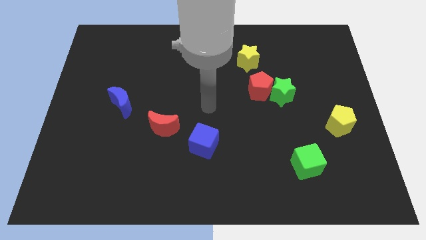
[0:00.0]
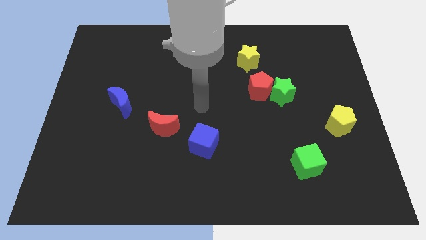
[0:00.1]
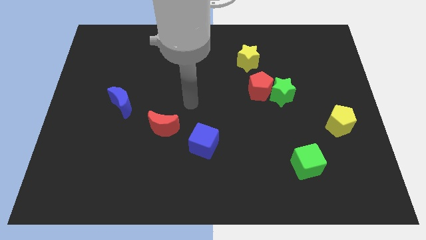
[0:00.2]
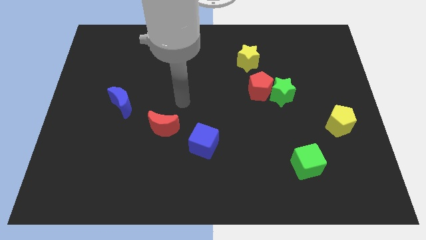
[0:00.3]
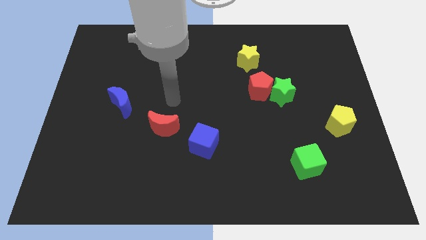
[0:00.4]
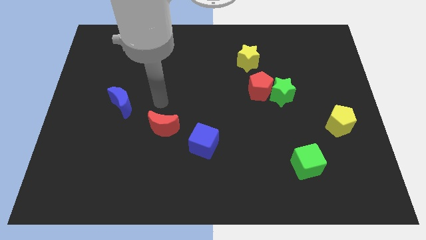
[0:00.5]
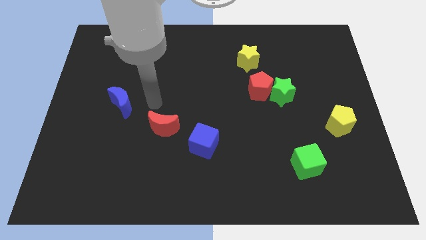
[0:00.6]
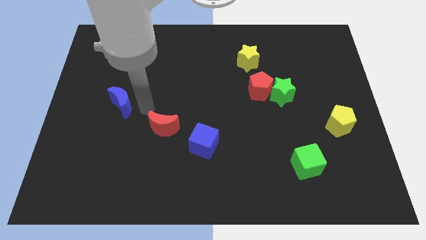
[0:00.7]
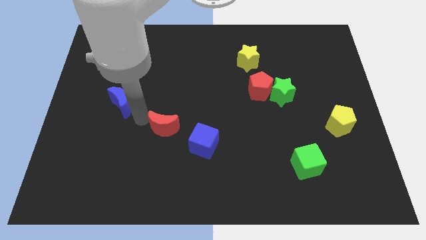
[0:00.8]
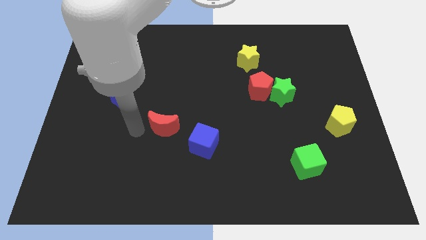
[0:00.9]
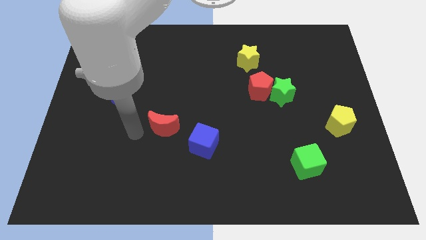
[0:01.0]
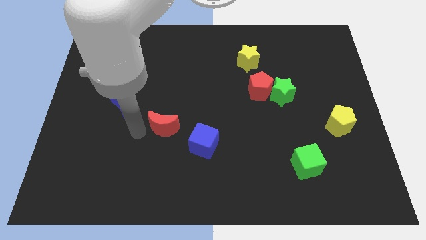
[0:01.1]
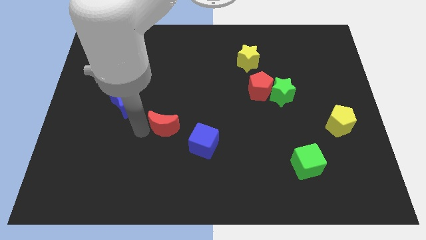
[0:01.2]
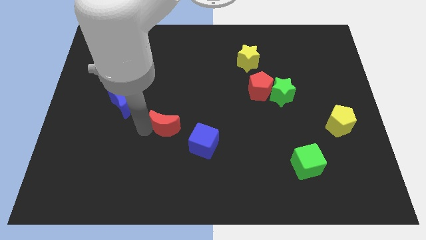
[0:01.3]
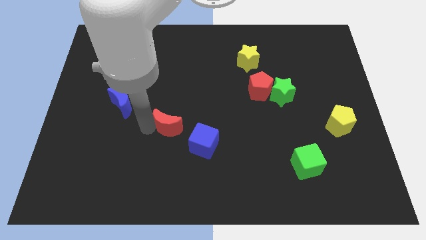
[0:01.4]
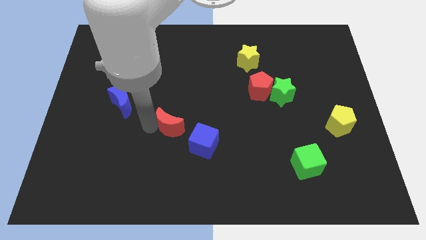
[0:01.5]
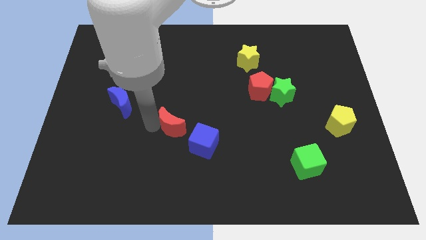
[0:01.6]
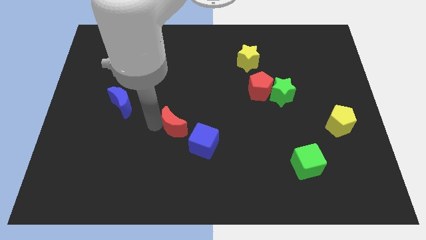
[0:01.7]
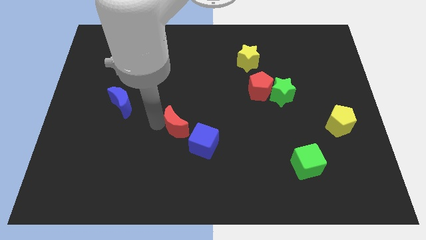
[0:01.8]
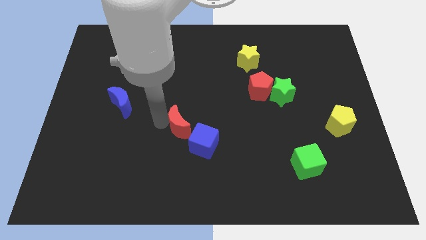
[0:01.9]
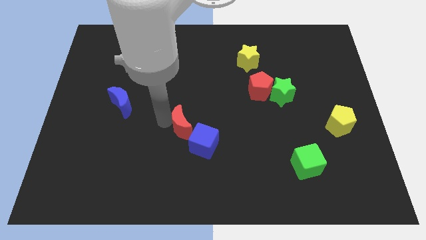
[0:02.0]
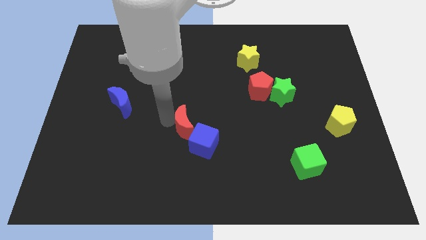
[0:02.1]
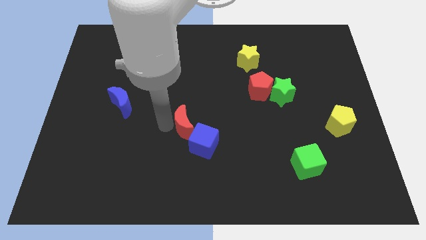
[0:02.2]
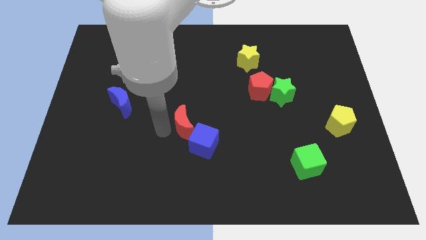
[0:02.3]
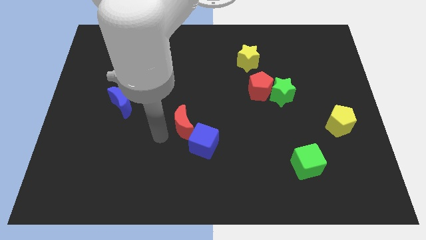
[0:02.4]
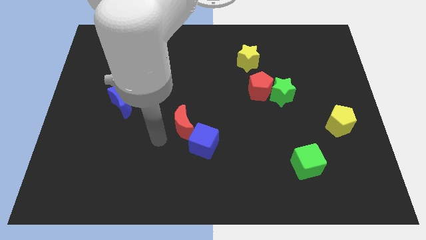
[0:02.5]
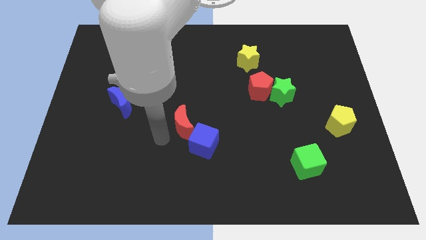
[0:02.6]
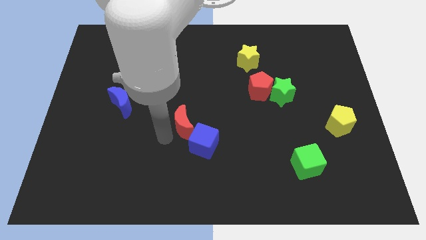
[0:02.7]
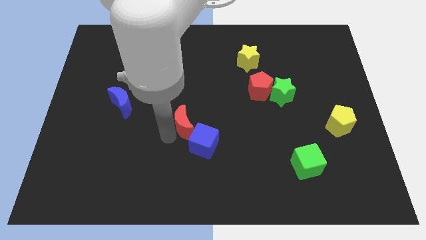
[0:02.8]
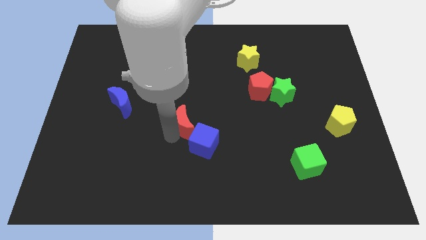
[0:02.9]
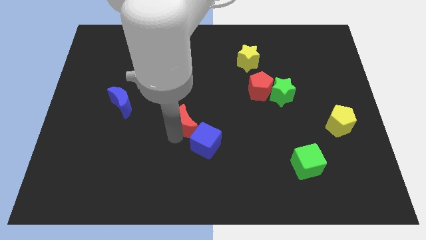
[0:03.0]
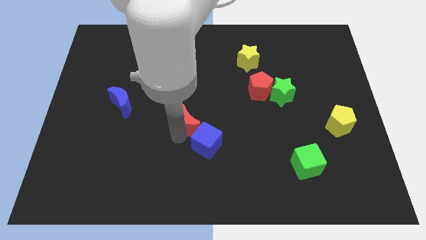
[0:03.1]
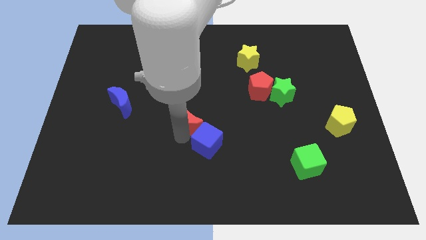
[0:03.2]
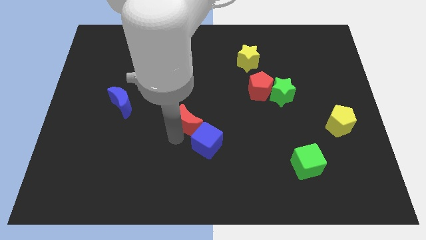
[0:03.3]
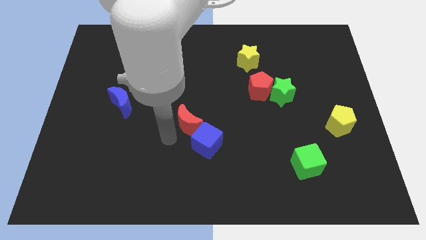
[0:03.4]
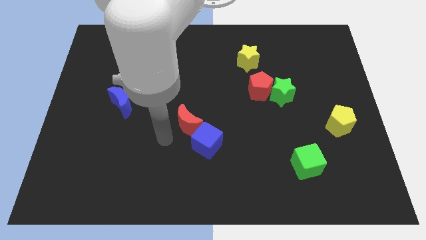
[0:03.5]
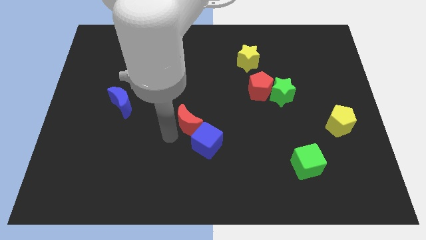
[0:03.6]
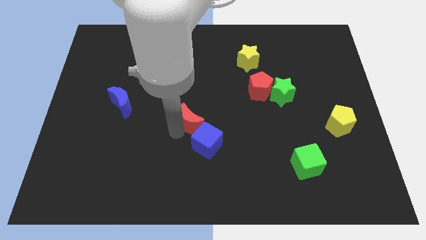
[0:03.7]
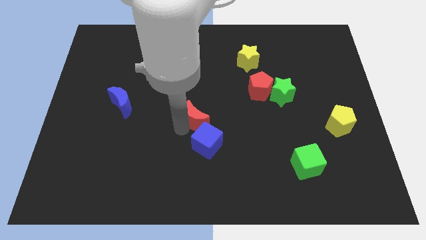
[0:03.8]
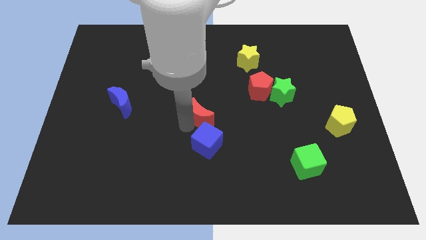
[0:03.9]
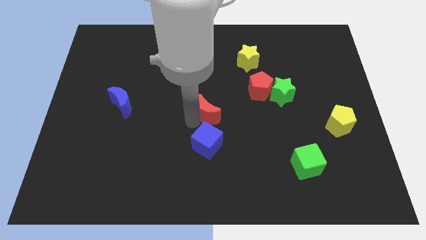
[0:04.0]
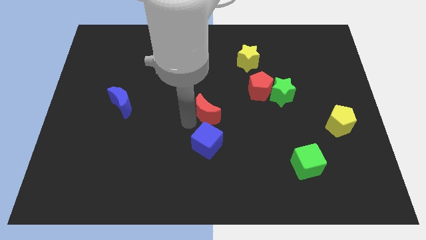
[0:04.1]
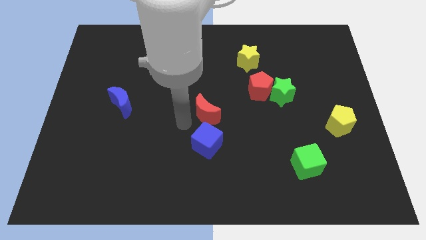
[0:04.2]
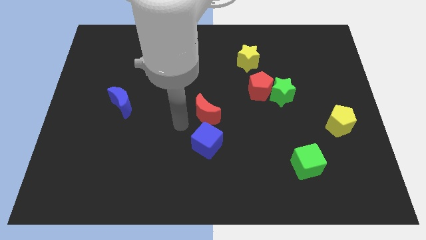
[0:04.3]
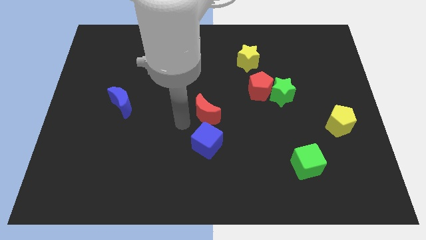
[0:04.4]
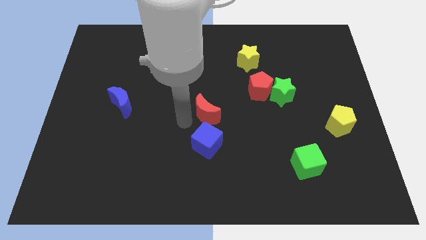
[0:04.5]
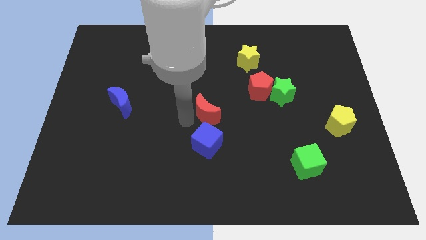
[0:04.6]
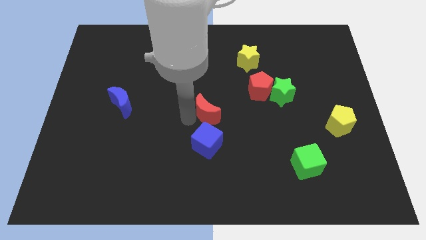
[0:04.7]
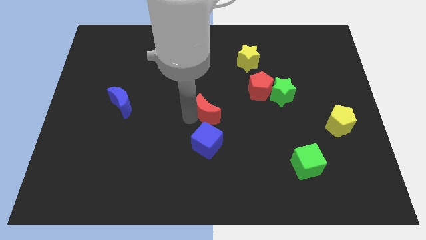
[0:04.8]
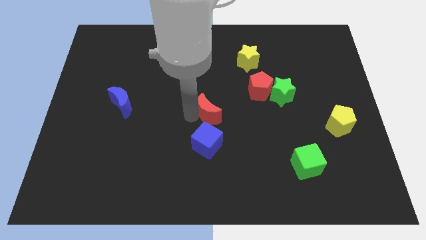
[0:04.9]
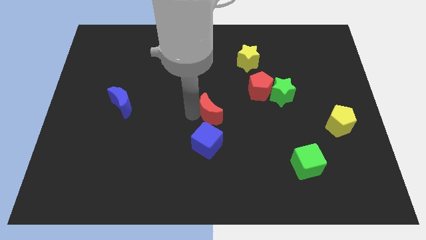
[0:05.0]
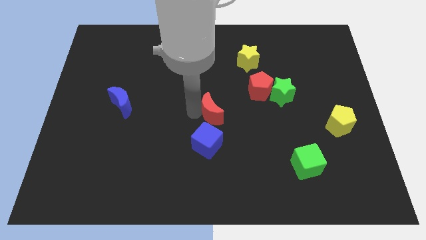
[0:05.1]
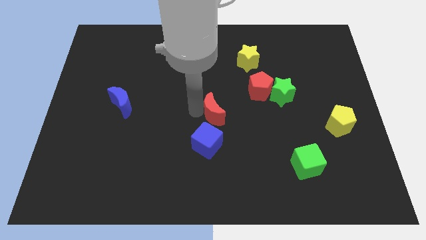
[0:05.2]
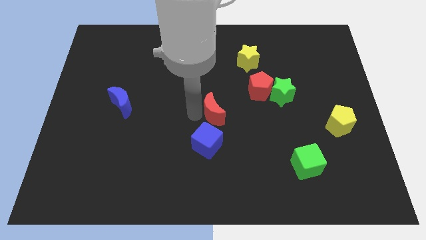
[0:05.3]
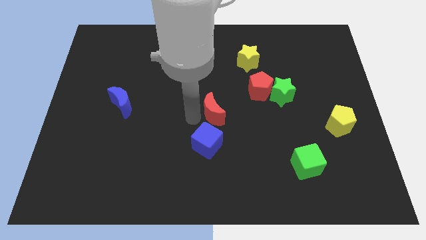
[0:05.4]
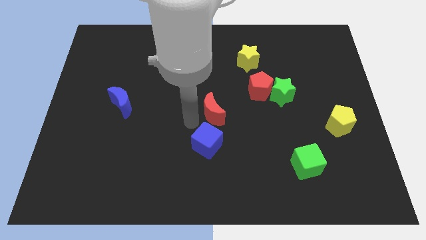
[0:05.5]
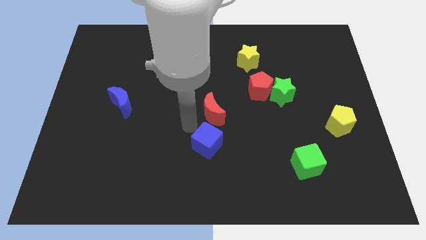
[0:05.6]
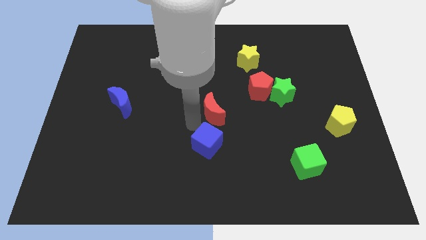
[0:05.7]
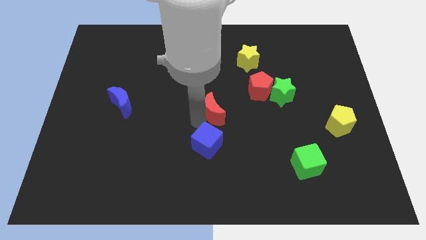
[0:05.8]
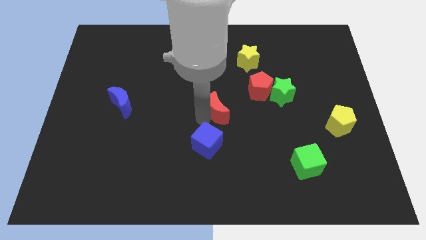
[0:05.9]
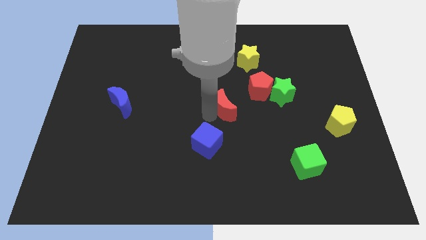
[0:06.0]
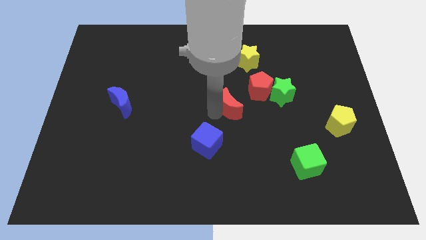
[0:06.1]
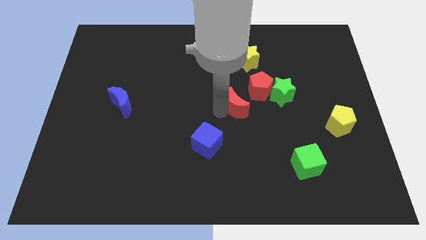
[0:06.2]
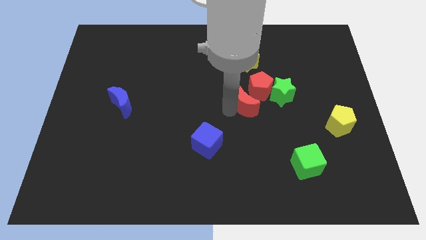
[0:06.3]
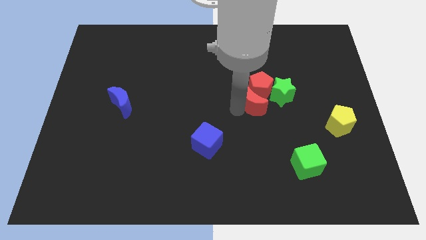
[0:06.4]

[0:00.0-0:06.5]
push the red moon to the red pentagon

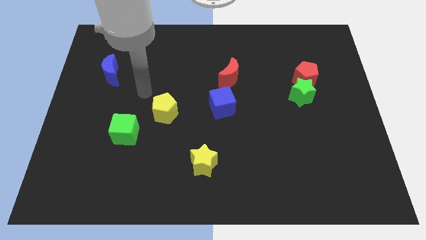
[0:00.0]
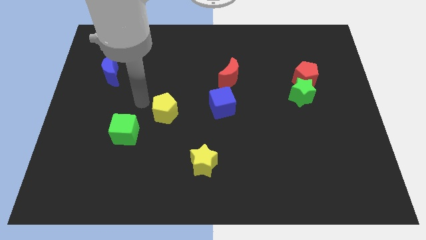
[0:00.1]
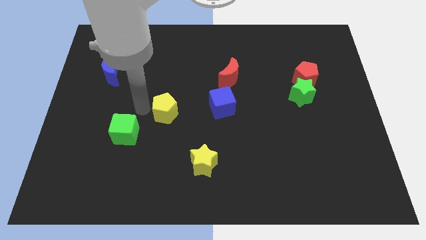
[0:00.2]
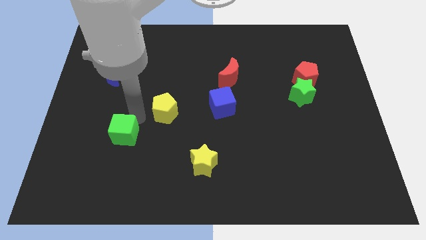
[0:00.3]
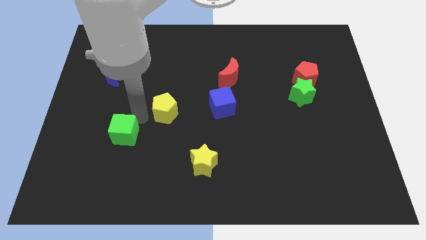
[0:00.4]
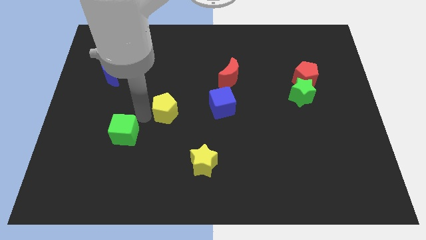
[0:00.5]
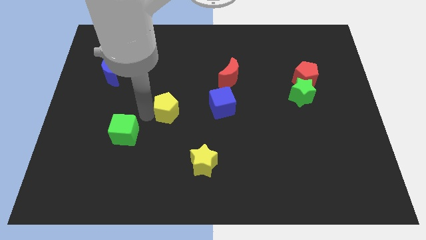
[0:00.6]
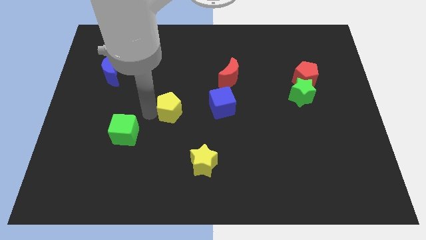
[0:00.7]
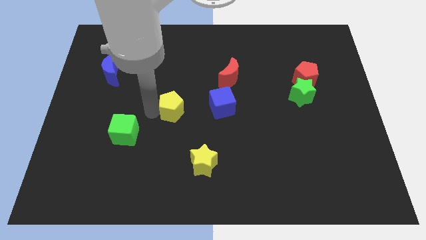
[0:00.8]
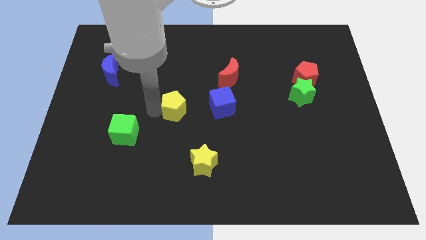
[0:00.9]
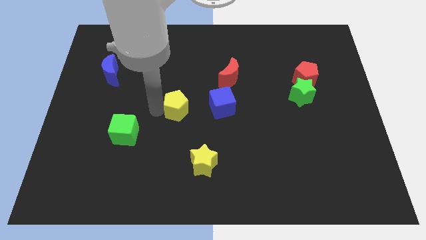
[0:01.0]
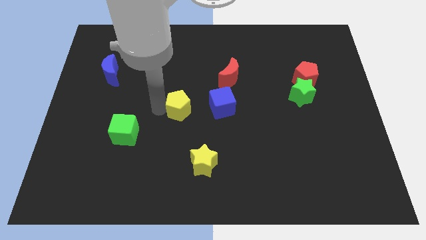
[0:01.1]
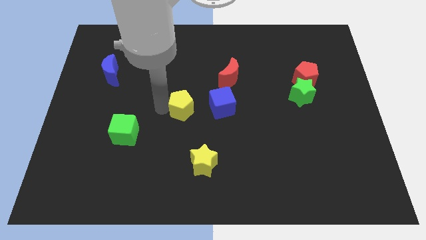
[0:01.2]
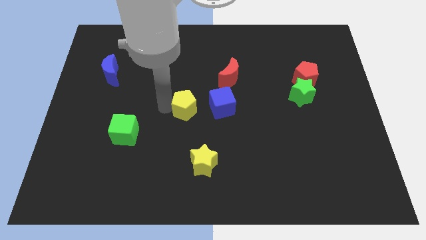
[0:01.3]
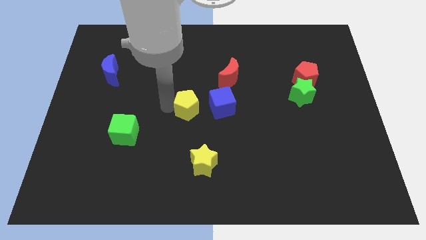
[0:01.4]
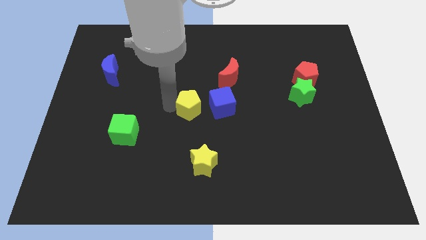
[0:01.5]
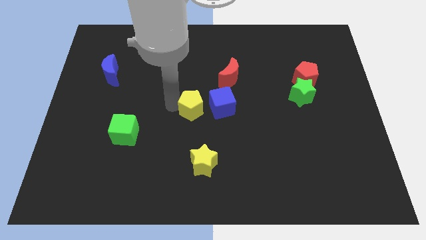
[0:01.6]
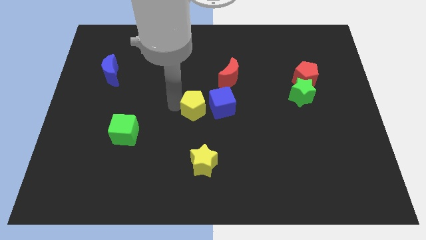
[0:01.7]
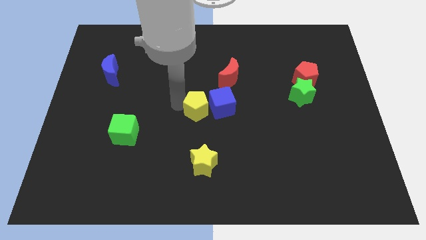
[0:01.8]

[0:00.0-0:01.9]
put the yellow pentagon towards the blue cube
